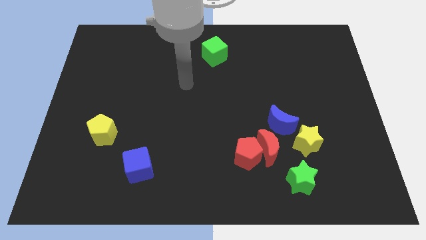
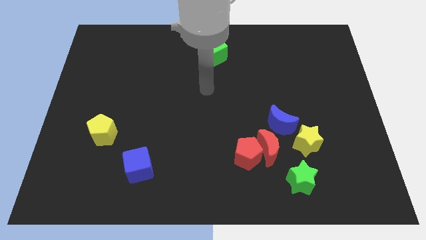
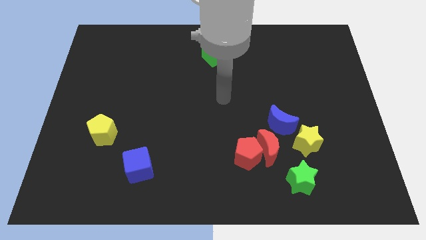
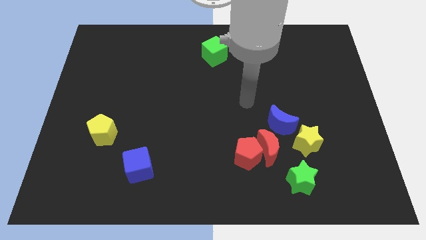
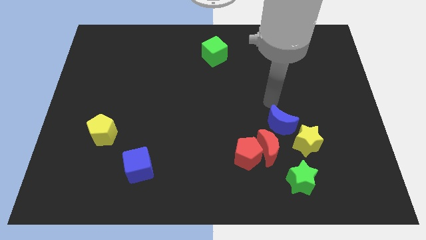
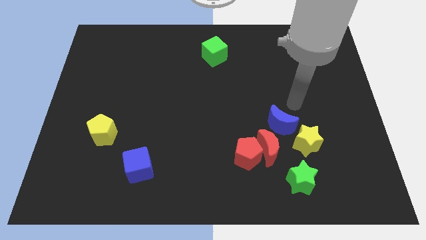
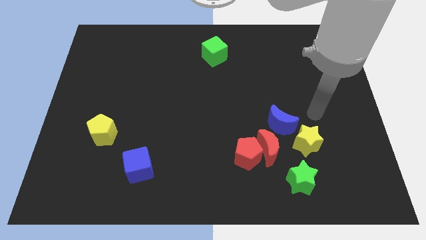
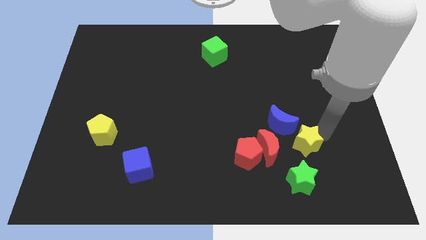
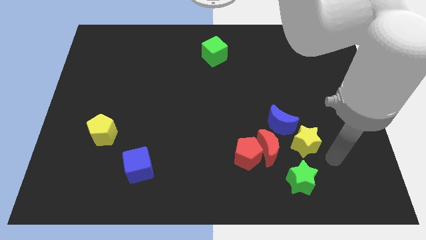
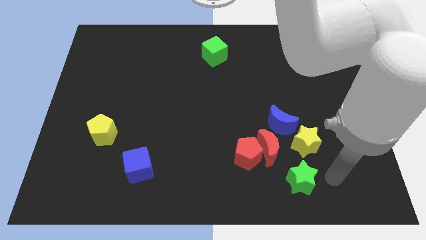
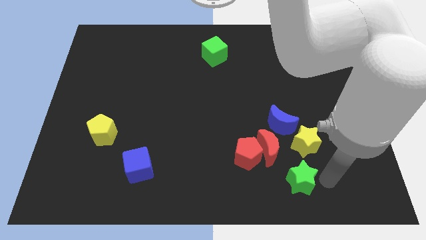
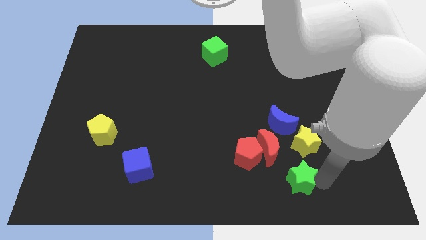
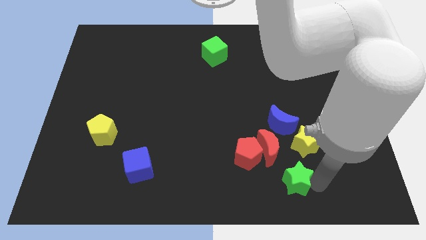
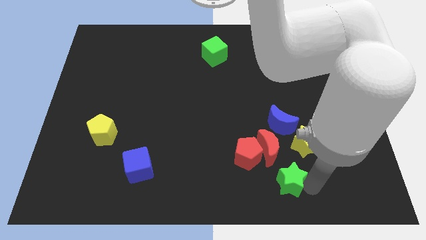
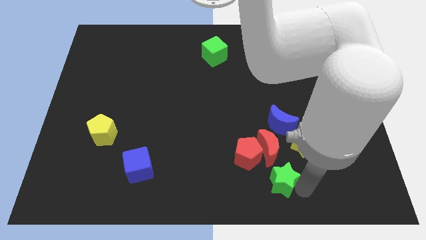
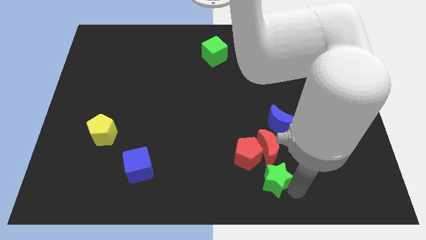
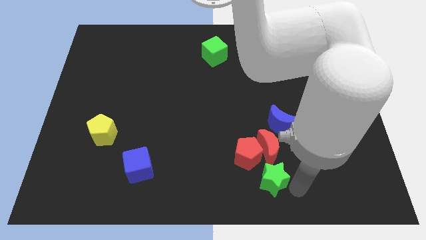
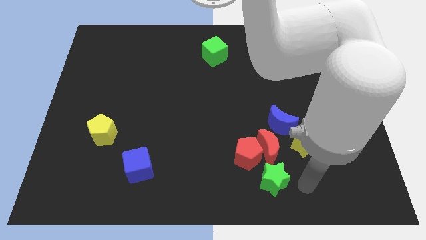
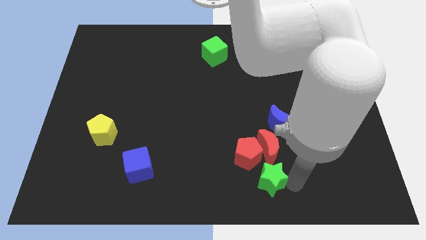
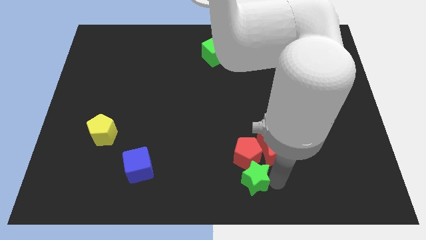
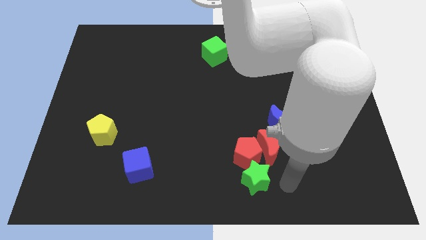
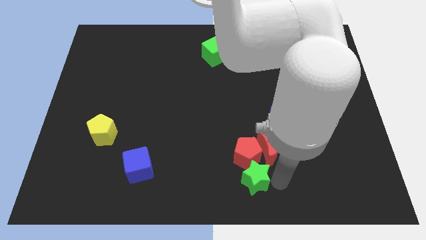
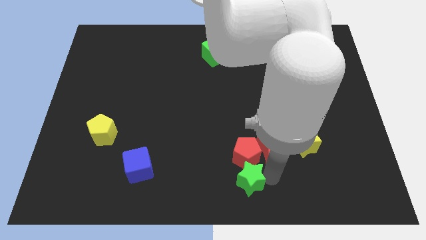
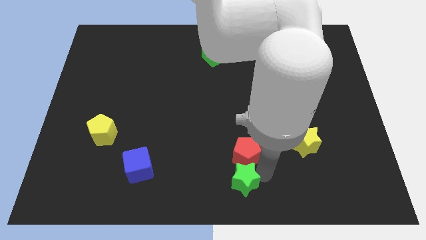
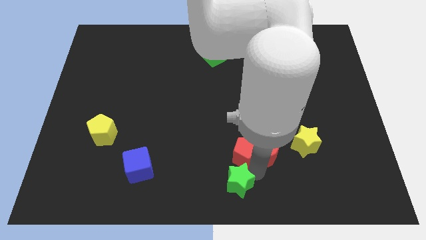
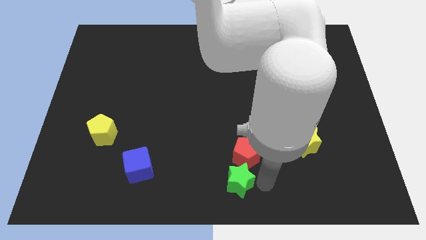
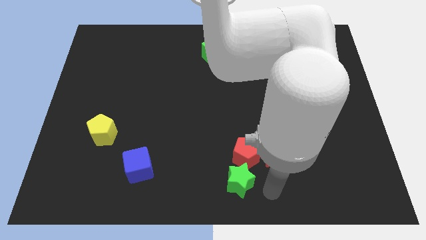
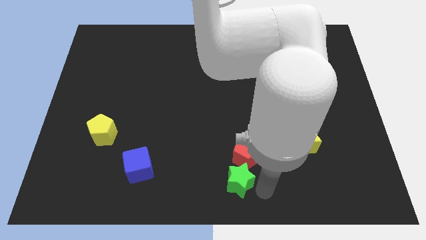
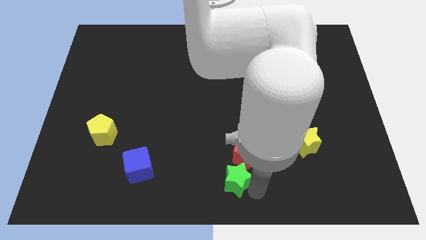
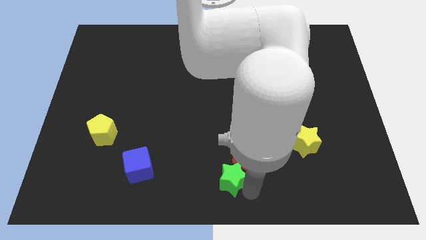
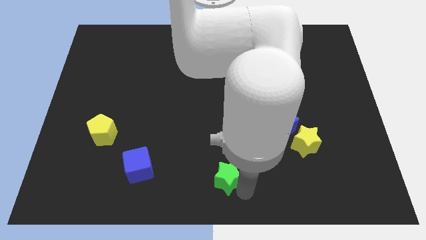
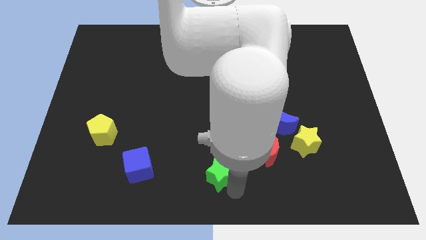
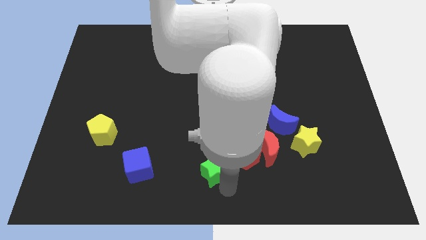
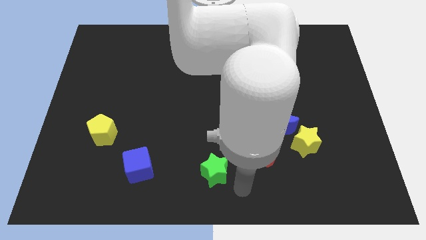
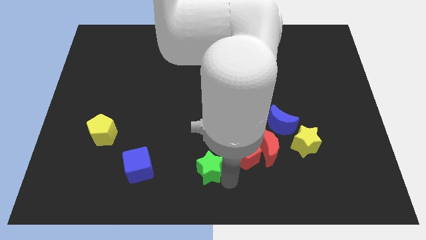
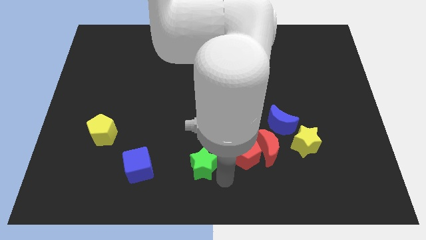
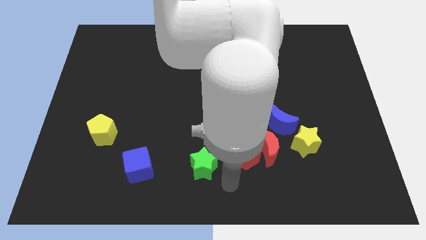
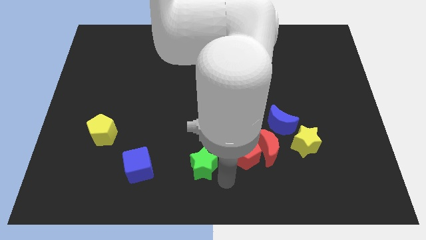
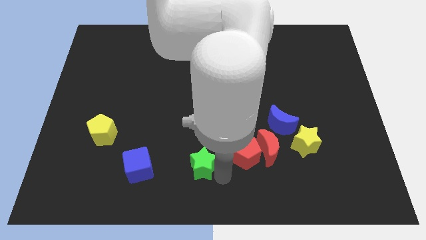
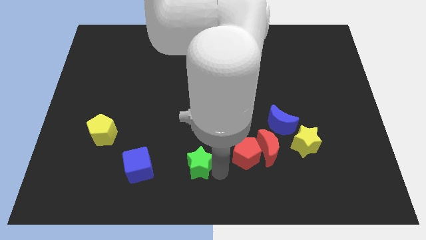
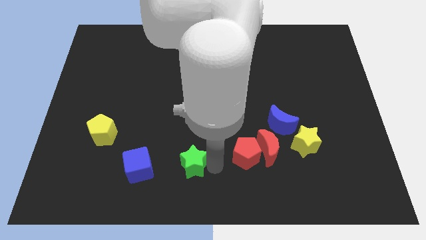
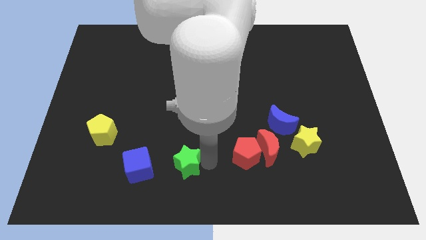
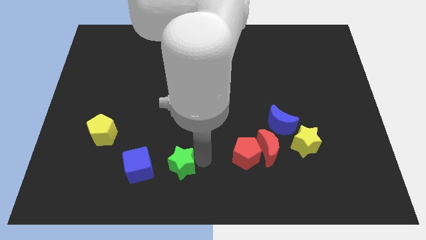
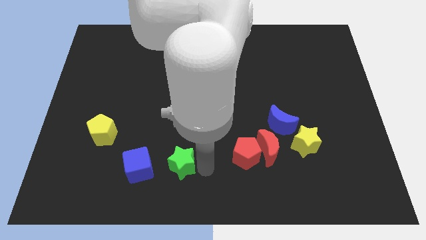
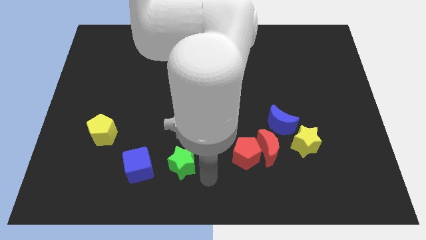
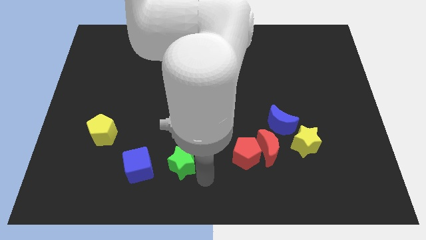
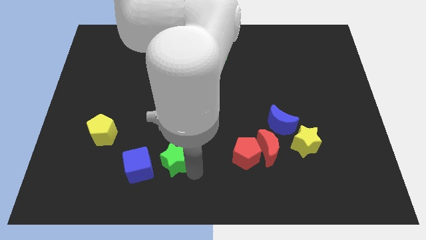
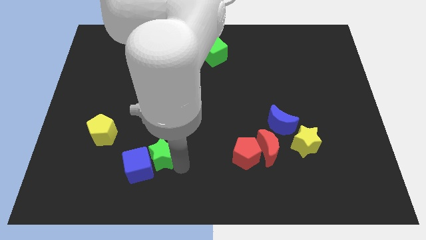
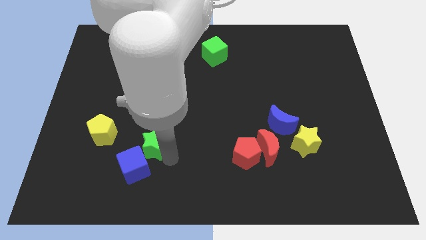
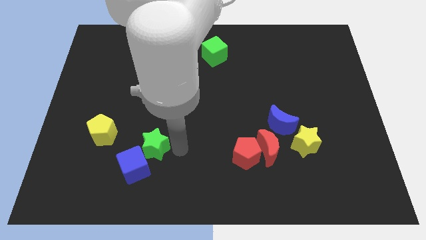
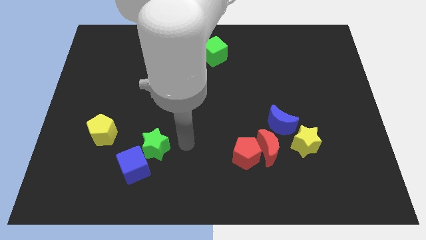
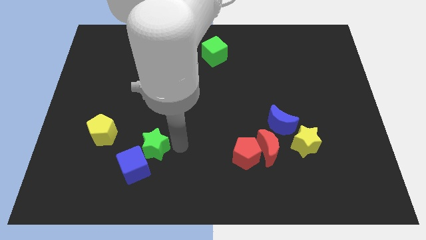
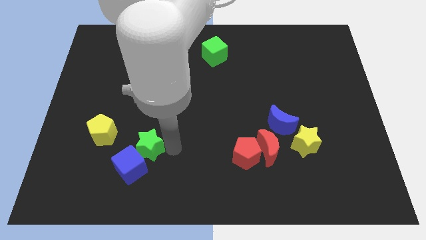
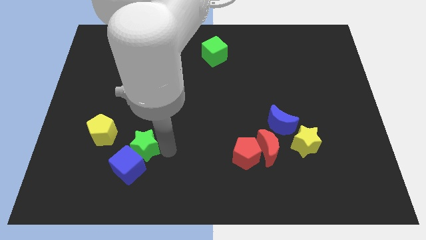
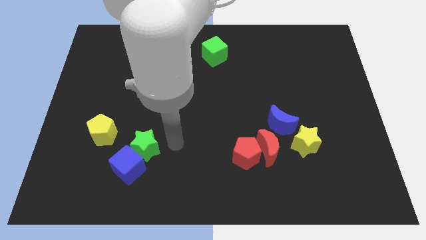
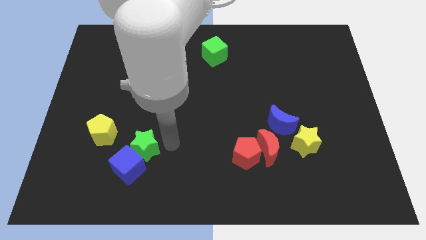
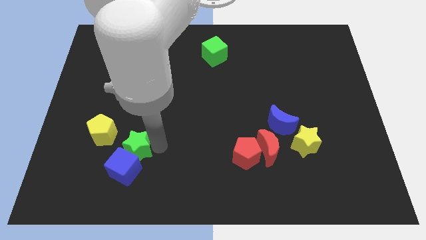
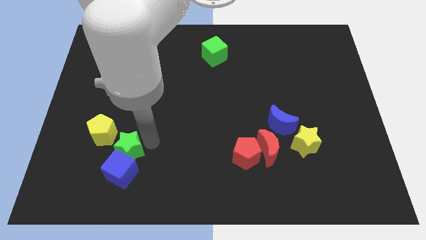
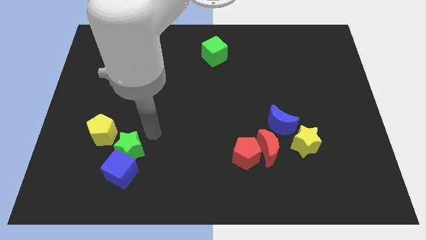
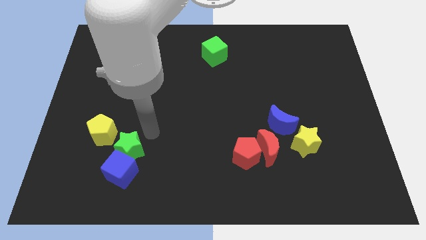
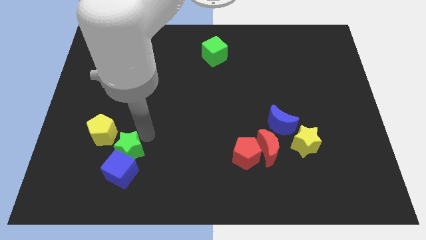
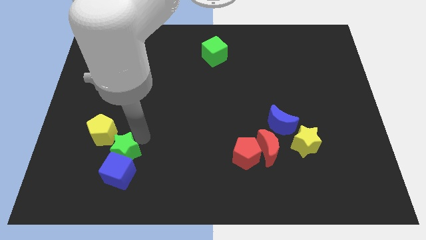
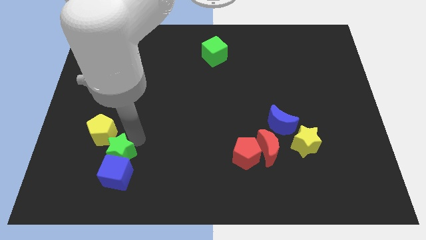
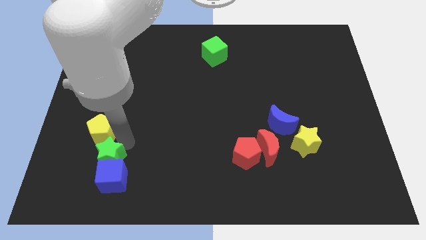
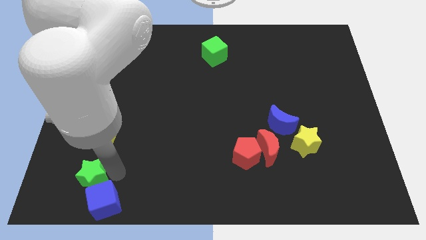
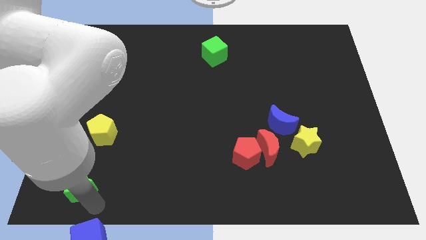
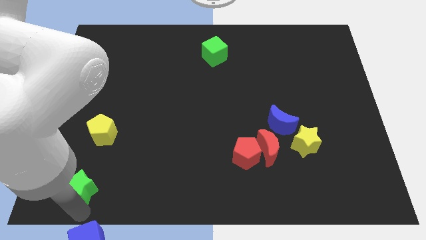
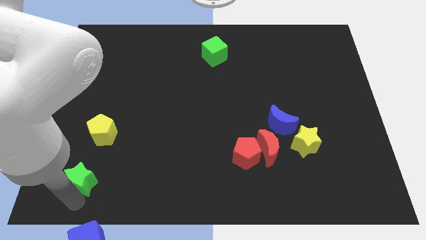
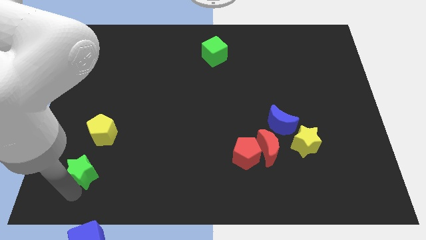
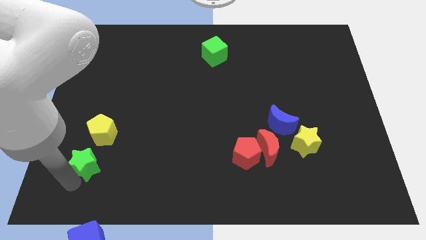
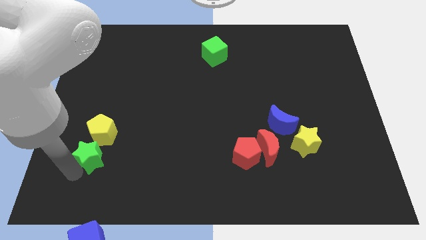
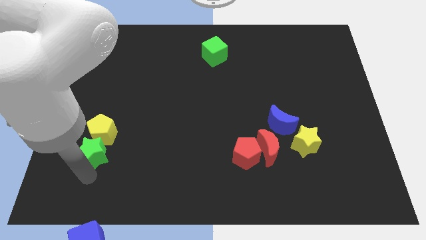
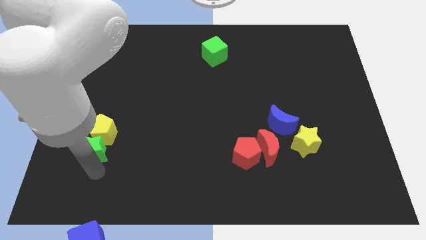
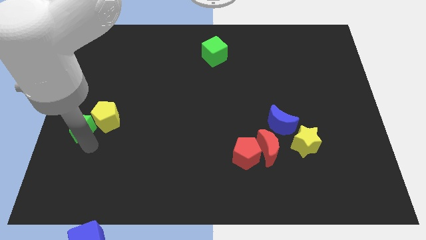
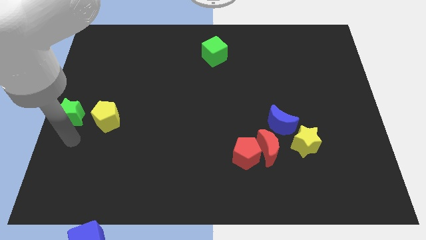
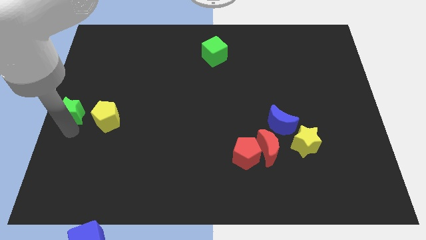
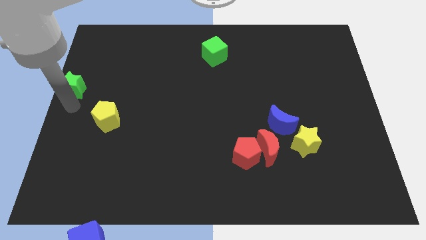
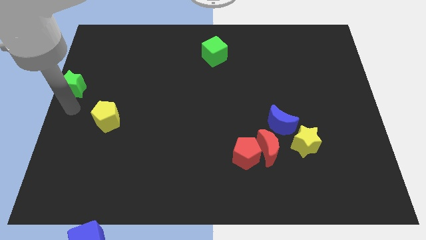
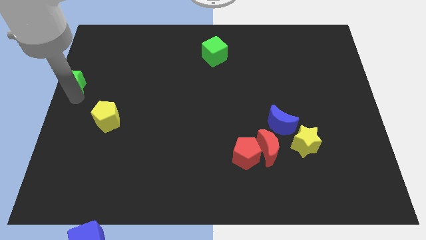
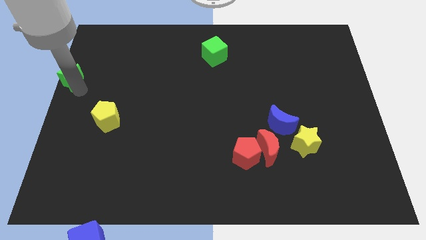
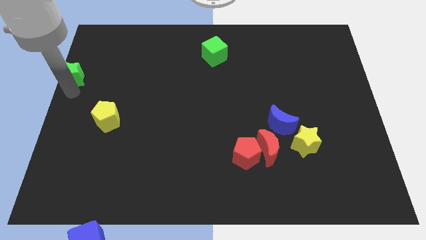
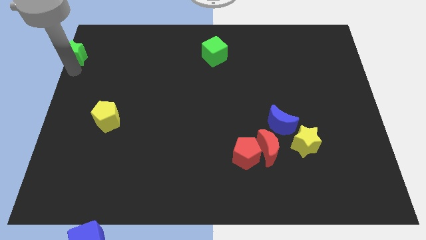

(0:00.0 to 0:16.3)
put the green star to the top left of the board
